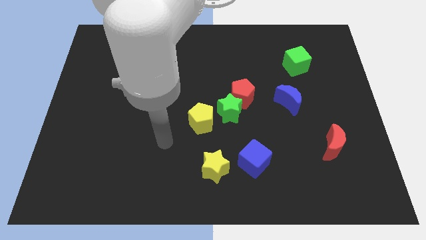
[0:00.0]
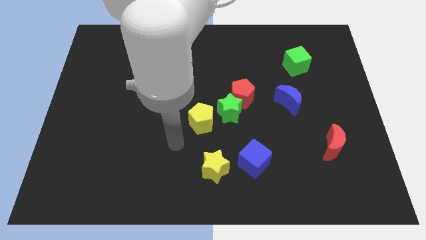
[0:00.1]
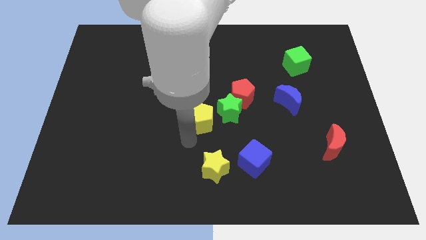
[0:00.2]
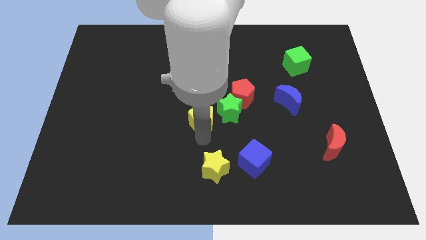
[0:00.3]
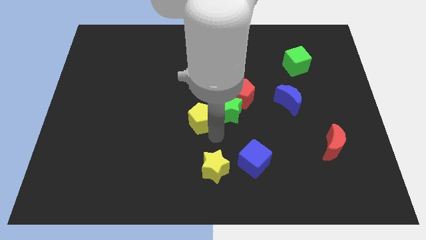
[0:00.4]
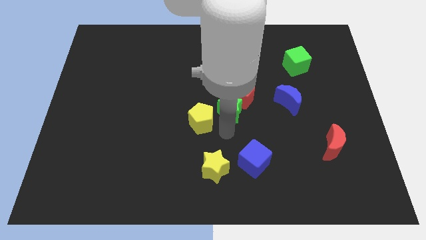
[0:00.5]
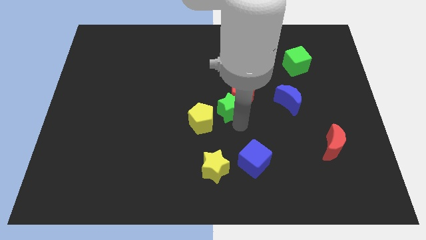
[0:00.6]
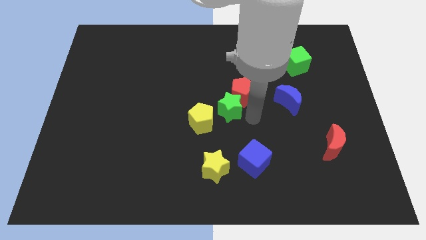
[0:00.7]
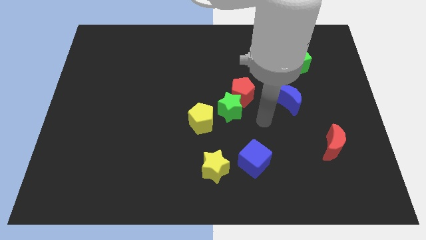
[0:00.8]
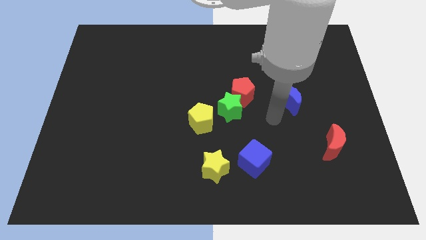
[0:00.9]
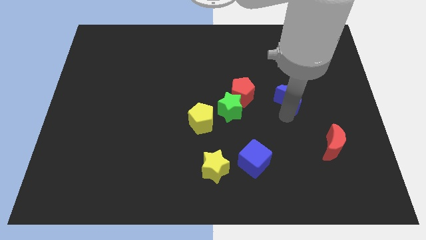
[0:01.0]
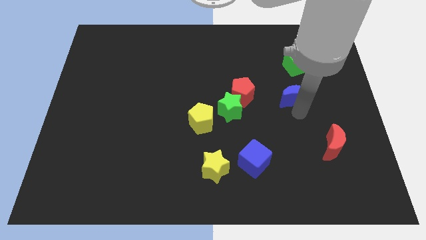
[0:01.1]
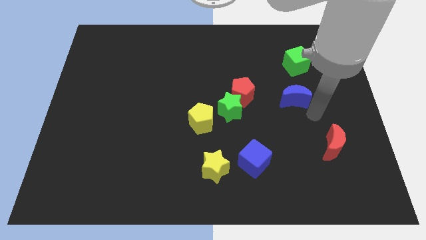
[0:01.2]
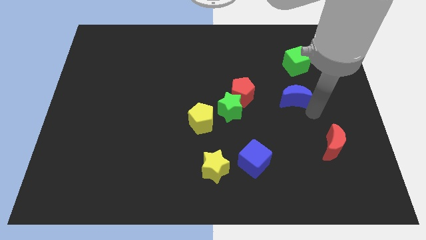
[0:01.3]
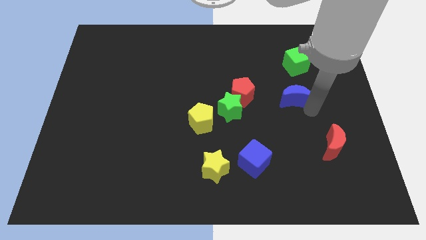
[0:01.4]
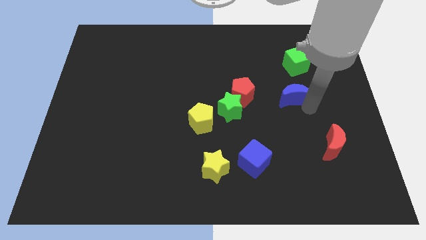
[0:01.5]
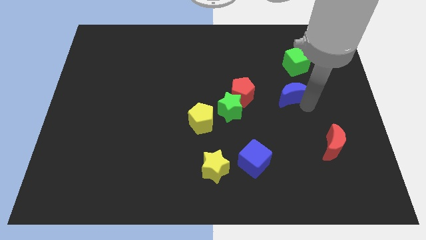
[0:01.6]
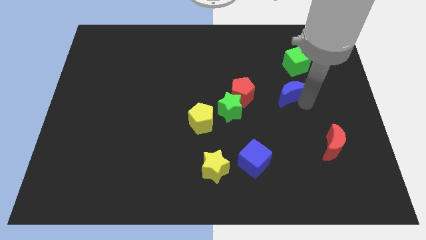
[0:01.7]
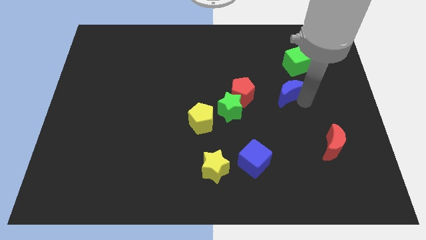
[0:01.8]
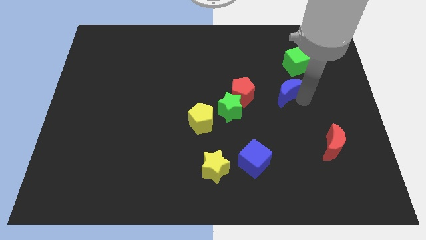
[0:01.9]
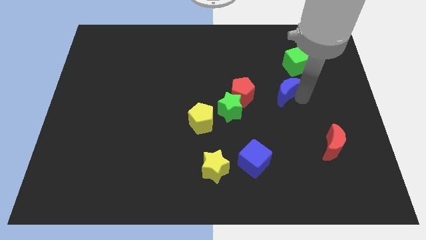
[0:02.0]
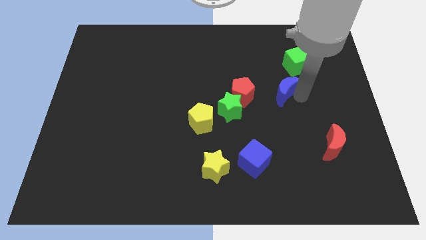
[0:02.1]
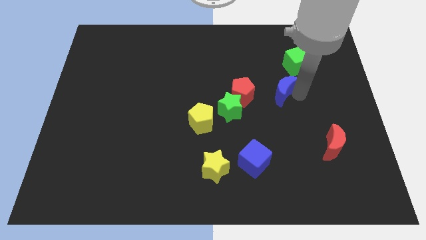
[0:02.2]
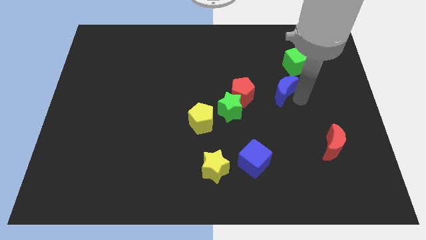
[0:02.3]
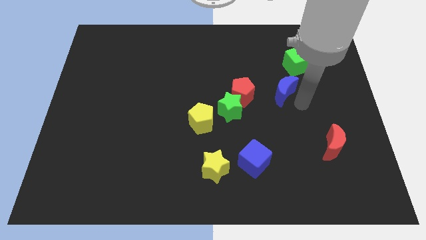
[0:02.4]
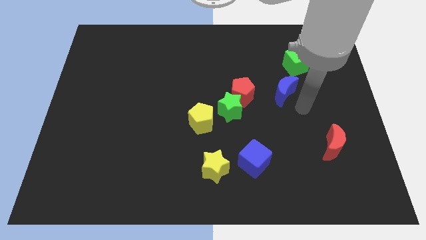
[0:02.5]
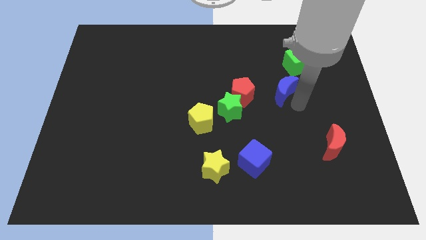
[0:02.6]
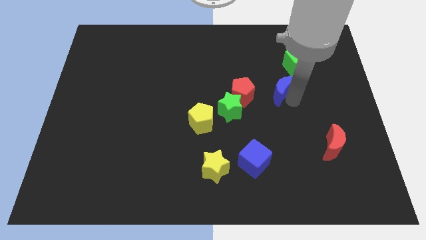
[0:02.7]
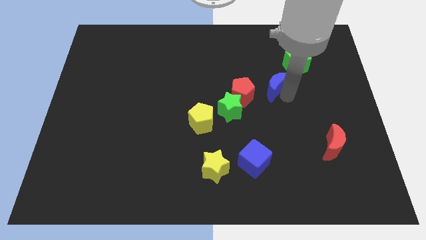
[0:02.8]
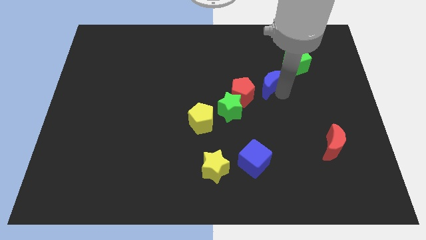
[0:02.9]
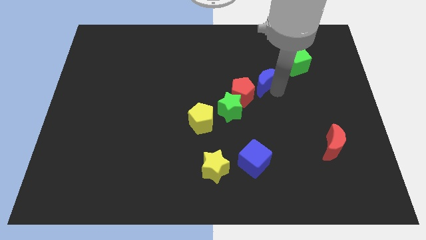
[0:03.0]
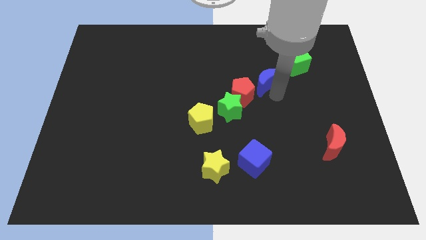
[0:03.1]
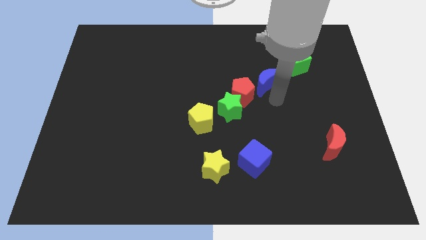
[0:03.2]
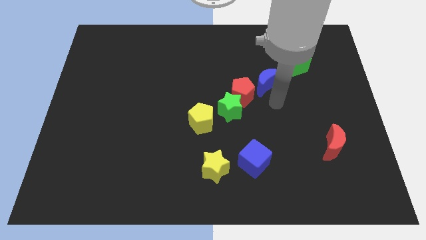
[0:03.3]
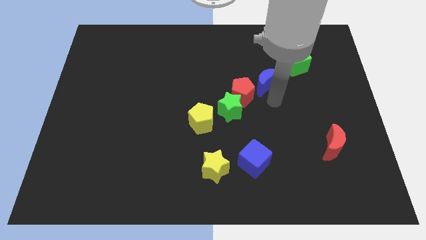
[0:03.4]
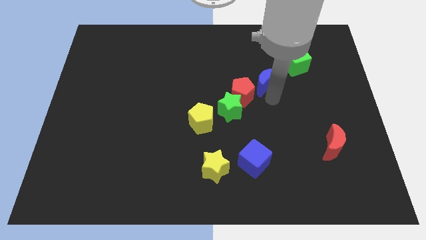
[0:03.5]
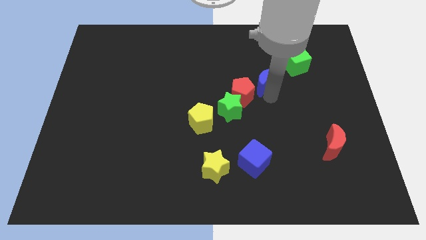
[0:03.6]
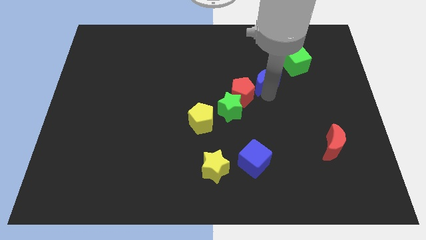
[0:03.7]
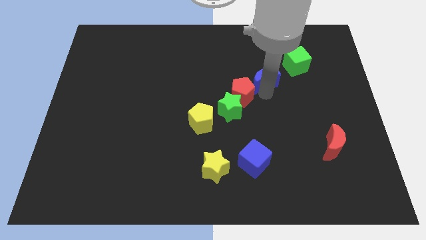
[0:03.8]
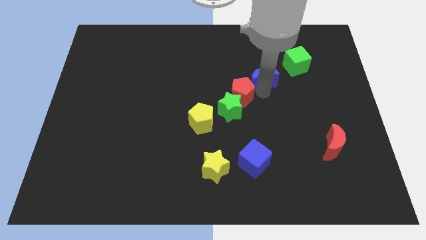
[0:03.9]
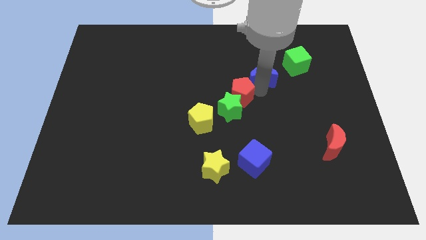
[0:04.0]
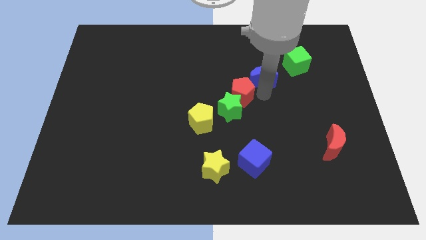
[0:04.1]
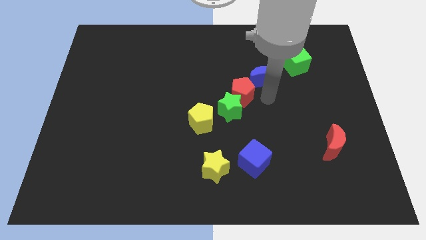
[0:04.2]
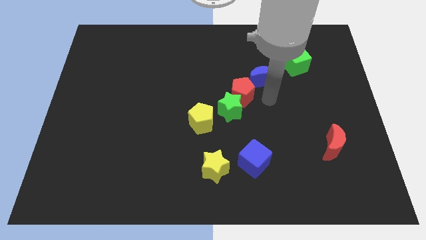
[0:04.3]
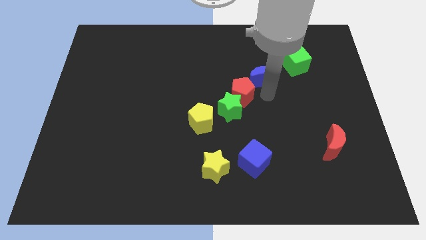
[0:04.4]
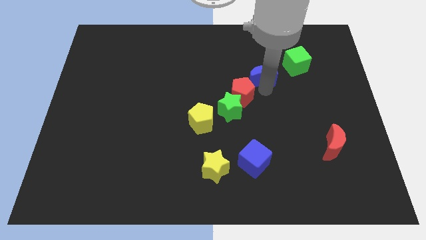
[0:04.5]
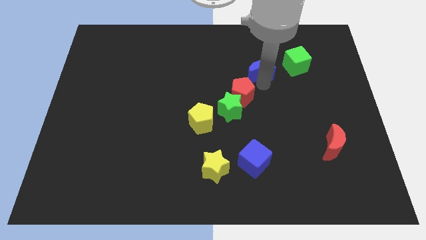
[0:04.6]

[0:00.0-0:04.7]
put the blue moon left of the green cube

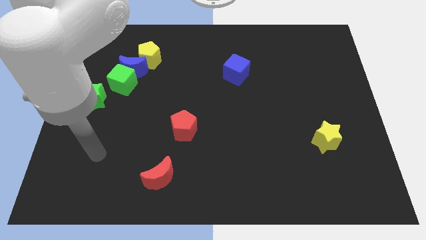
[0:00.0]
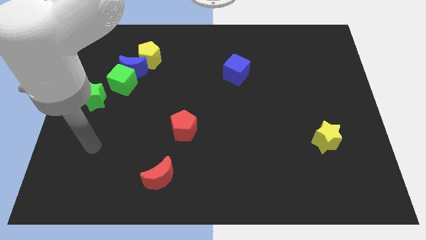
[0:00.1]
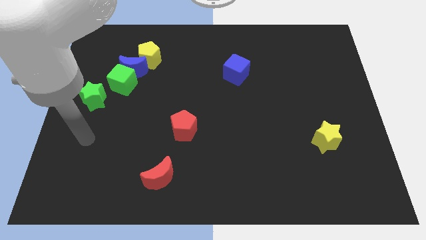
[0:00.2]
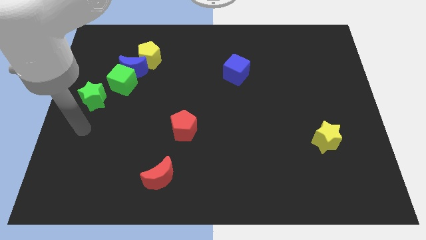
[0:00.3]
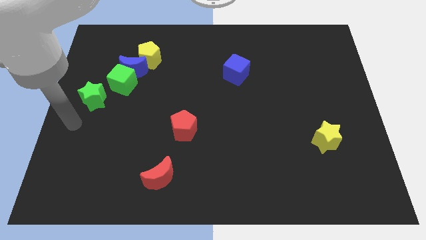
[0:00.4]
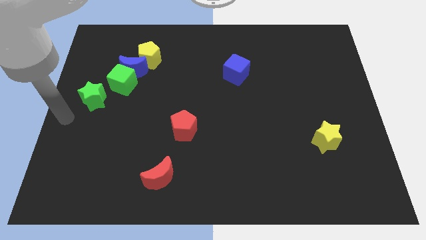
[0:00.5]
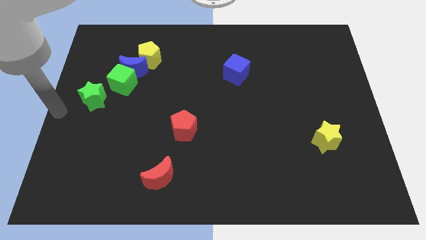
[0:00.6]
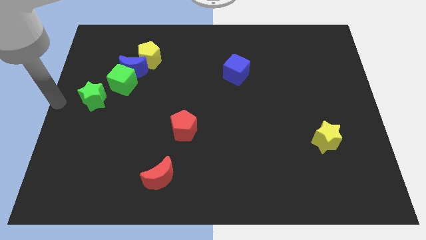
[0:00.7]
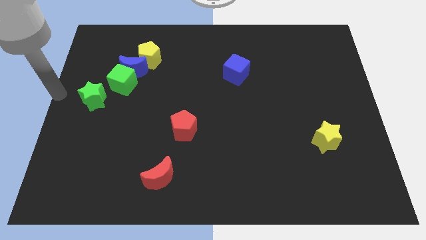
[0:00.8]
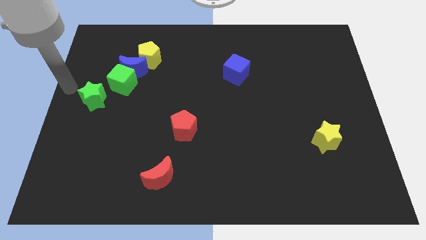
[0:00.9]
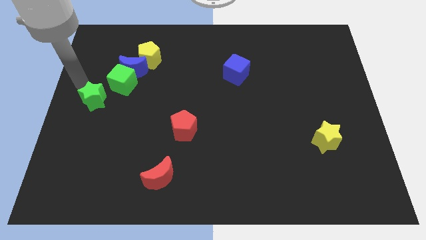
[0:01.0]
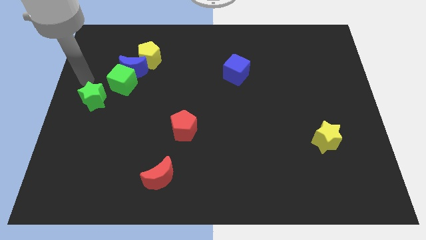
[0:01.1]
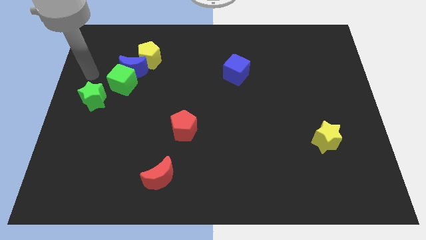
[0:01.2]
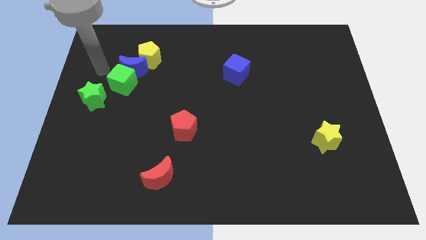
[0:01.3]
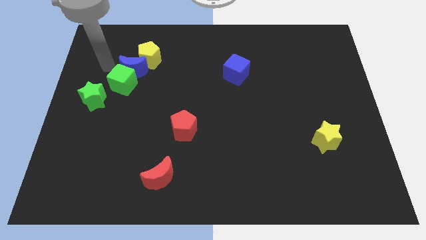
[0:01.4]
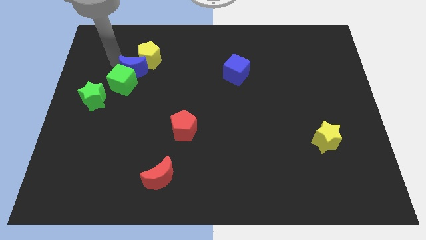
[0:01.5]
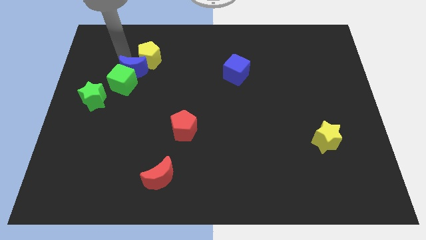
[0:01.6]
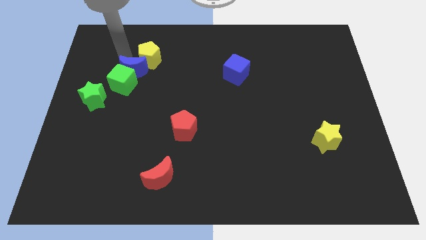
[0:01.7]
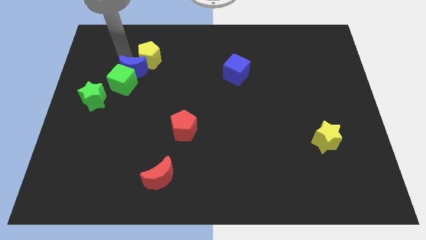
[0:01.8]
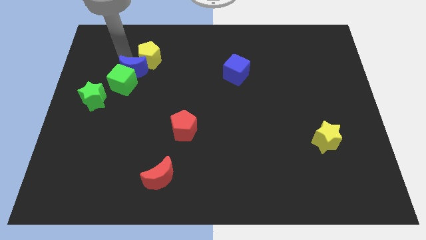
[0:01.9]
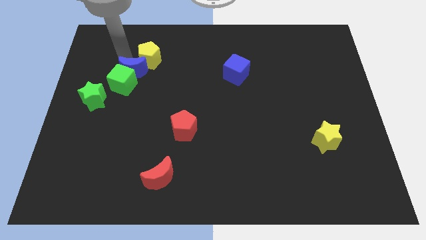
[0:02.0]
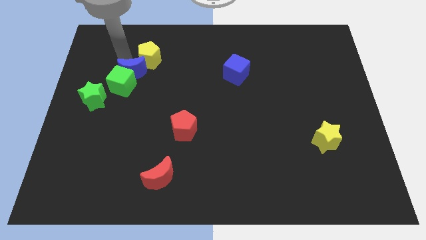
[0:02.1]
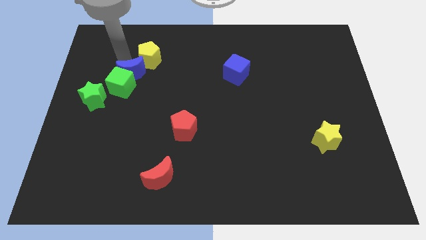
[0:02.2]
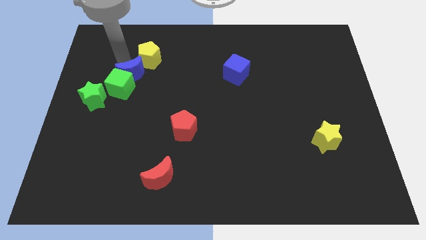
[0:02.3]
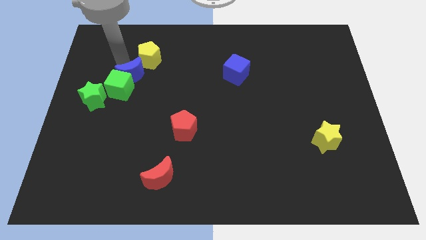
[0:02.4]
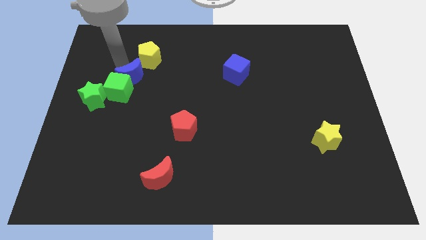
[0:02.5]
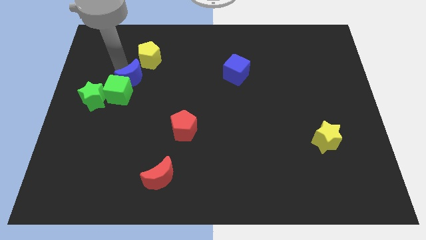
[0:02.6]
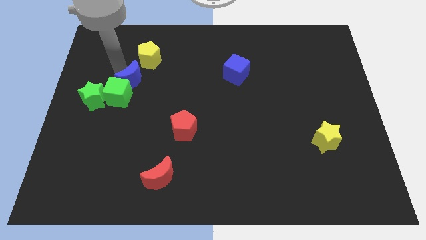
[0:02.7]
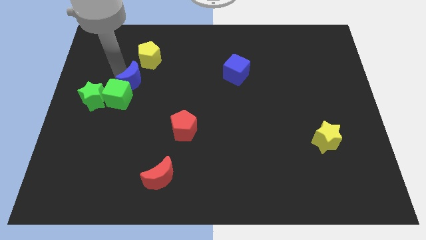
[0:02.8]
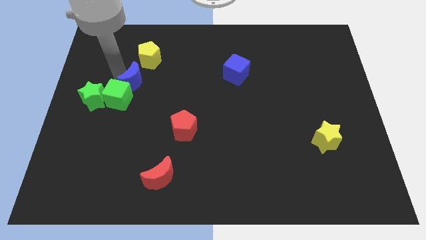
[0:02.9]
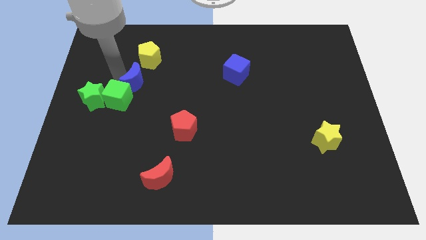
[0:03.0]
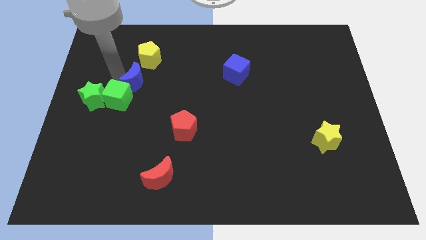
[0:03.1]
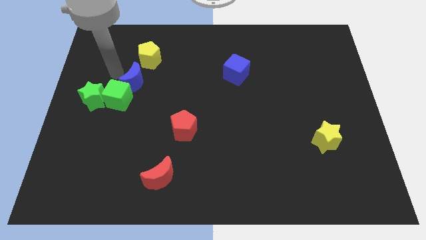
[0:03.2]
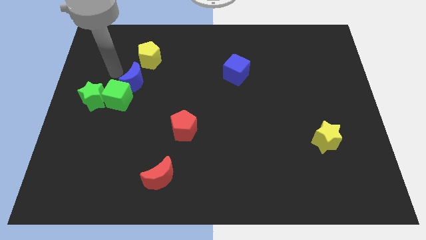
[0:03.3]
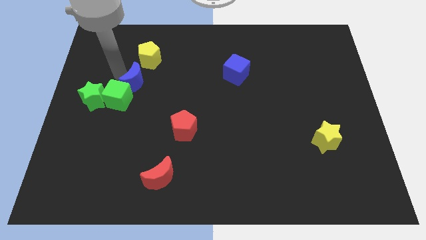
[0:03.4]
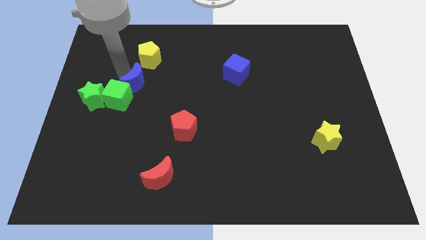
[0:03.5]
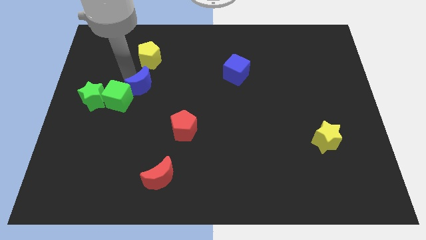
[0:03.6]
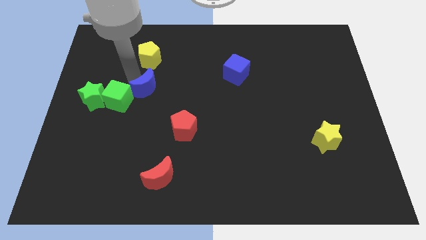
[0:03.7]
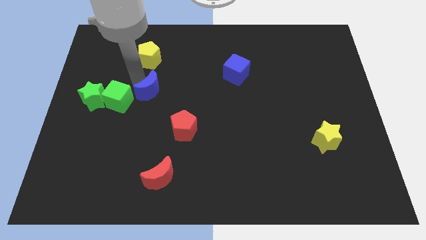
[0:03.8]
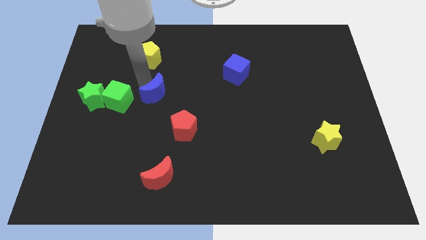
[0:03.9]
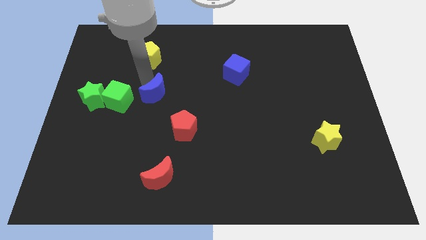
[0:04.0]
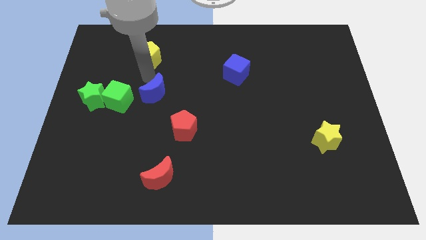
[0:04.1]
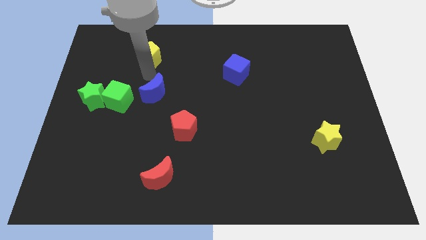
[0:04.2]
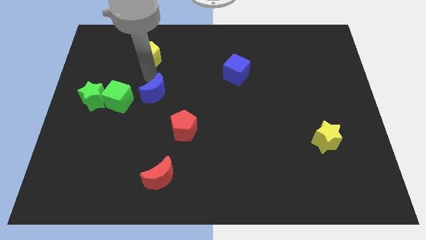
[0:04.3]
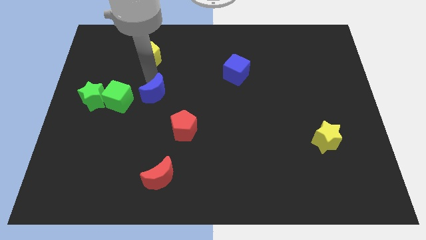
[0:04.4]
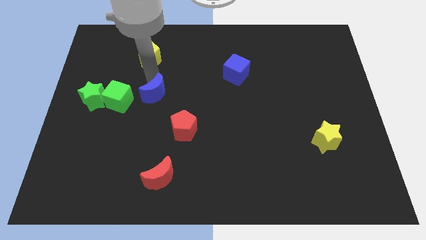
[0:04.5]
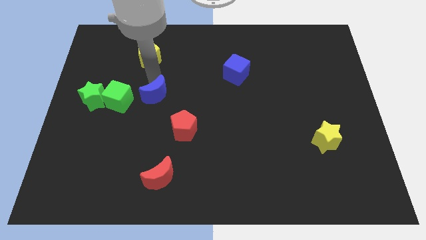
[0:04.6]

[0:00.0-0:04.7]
push the blue moon to the top left side of the red pentagon
